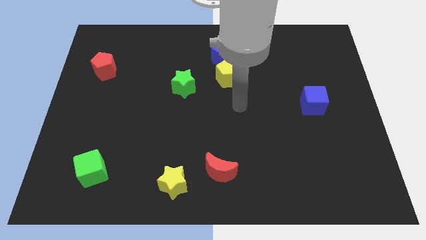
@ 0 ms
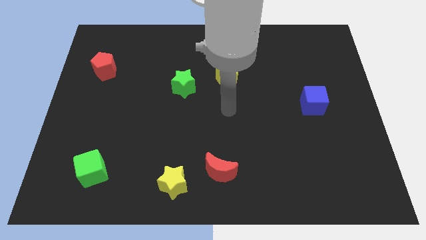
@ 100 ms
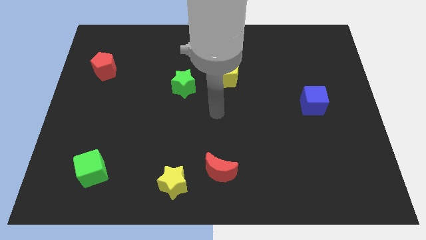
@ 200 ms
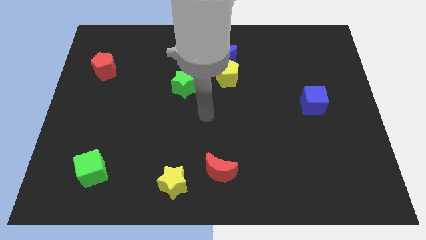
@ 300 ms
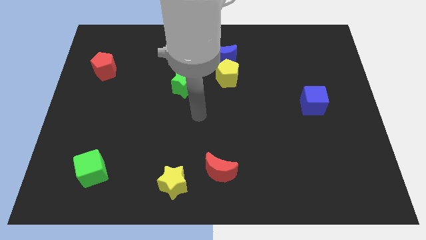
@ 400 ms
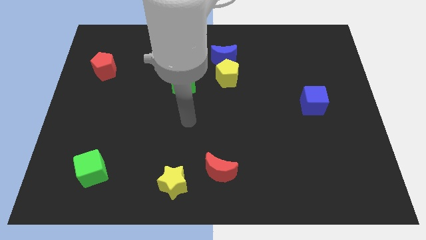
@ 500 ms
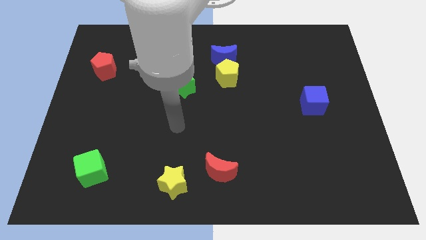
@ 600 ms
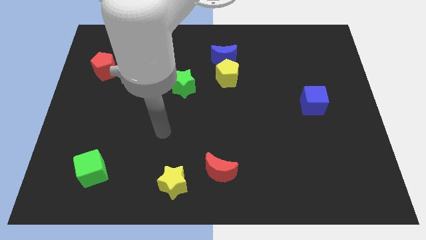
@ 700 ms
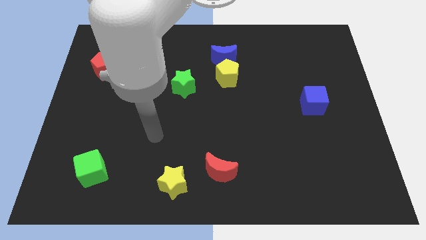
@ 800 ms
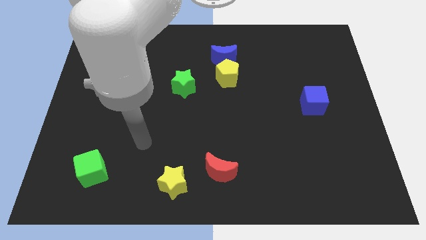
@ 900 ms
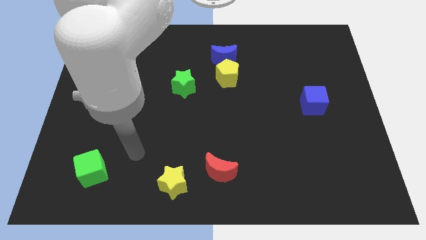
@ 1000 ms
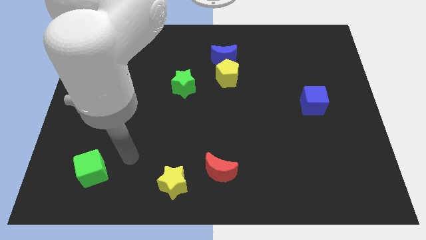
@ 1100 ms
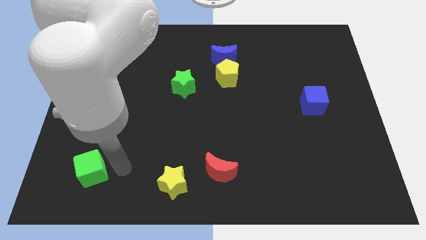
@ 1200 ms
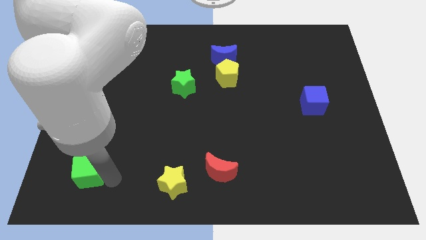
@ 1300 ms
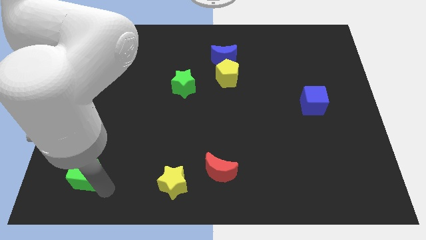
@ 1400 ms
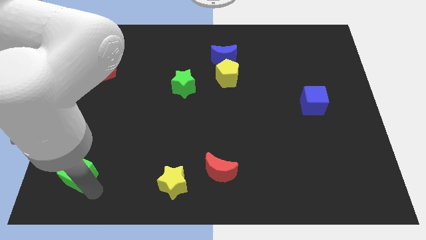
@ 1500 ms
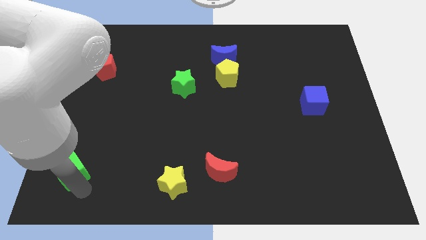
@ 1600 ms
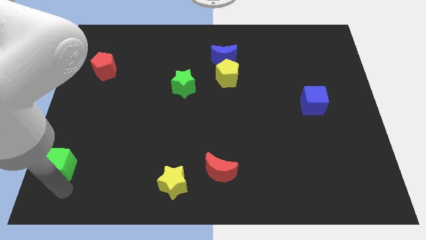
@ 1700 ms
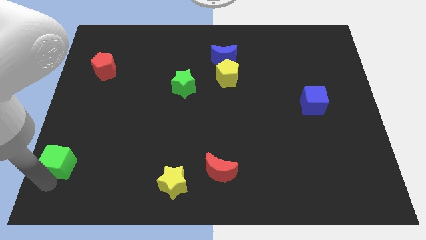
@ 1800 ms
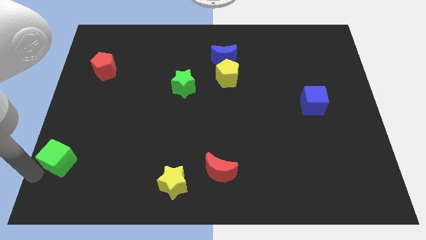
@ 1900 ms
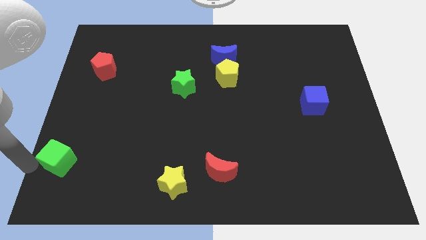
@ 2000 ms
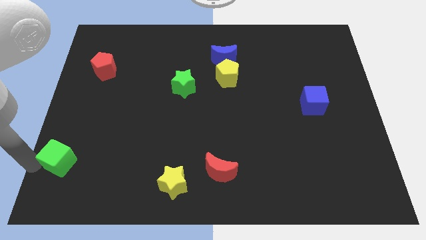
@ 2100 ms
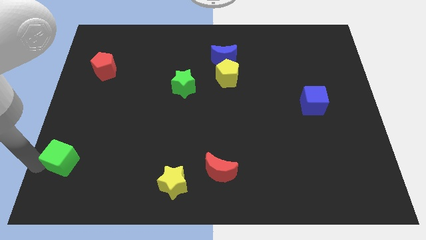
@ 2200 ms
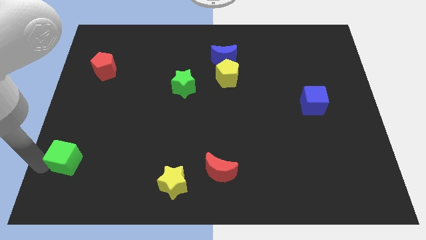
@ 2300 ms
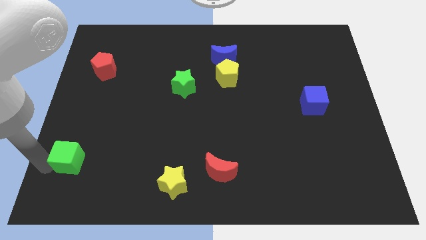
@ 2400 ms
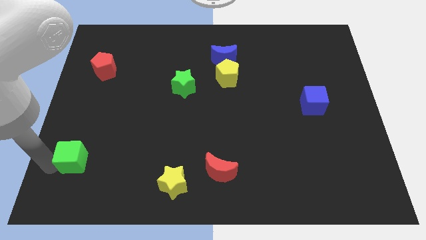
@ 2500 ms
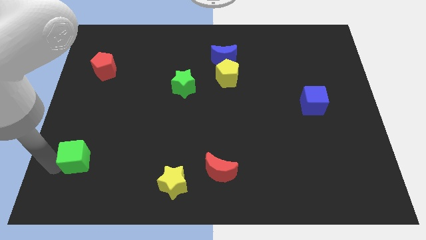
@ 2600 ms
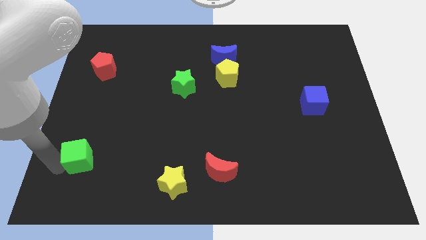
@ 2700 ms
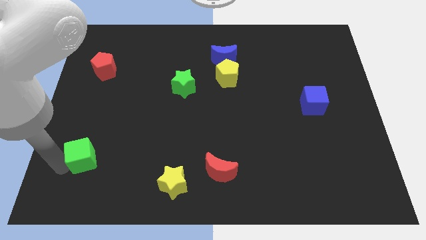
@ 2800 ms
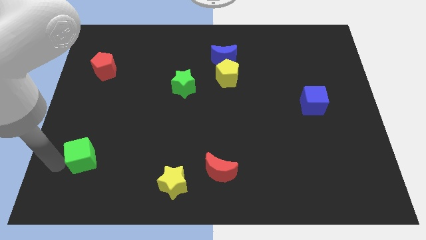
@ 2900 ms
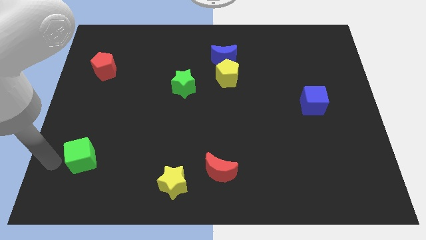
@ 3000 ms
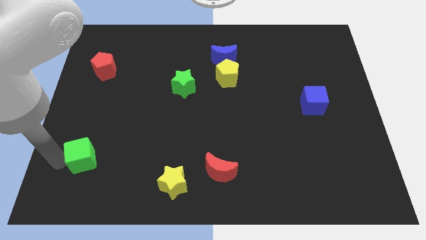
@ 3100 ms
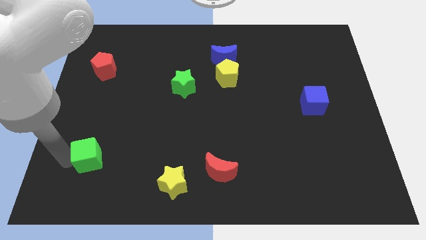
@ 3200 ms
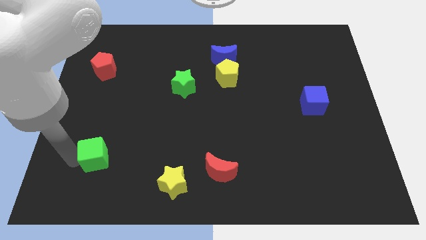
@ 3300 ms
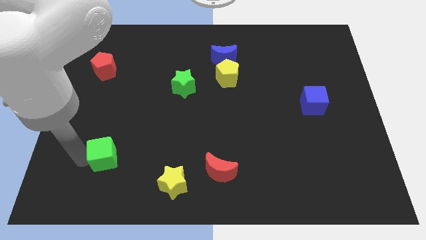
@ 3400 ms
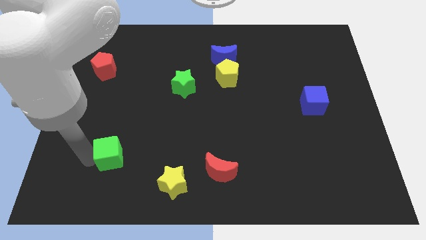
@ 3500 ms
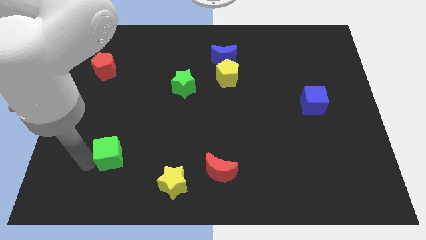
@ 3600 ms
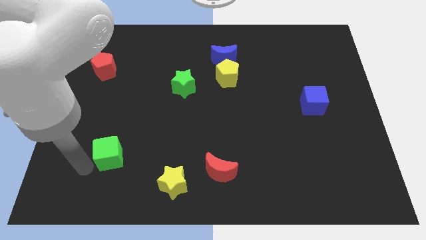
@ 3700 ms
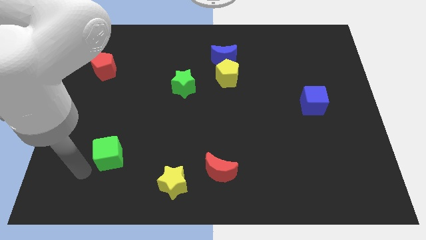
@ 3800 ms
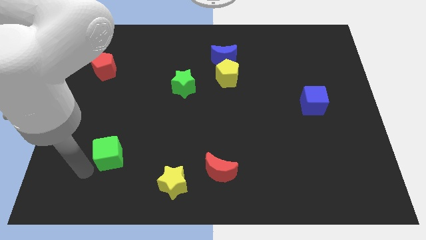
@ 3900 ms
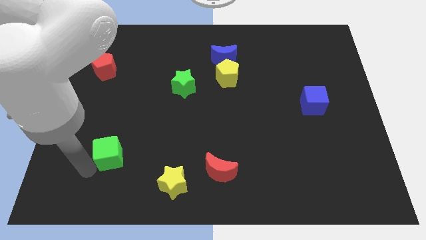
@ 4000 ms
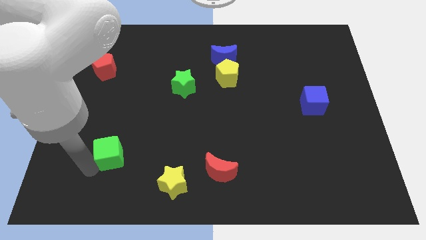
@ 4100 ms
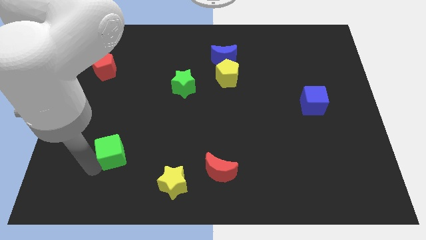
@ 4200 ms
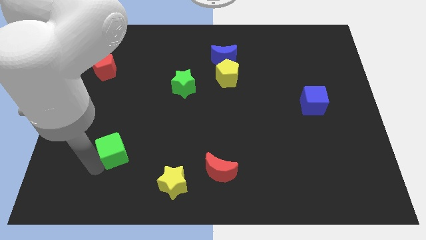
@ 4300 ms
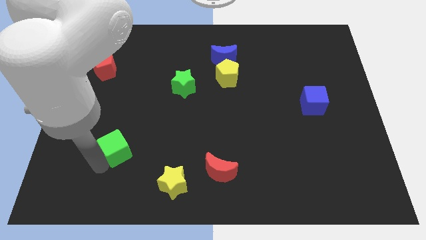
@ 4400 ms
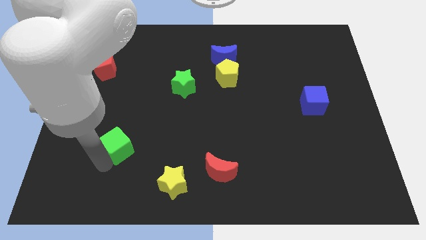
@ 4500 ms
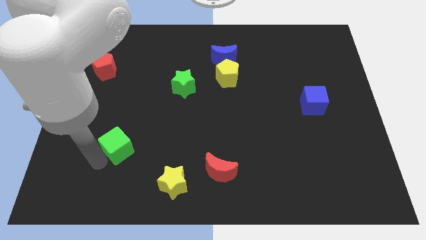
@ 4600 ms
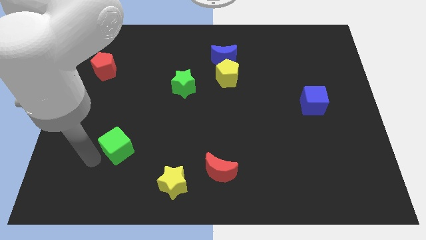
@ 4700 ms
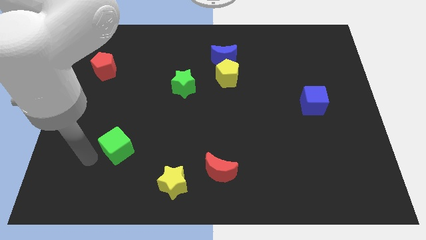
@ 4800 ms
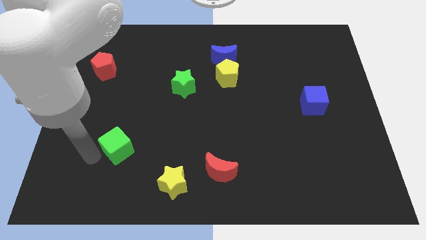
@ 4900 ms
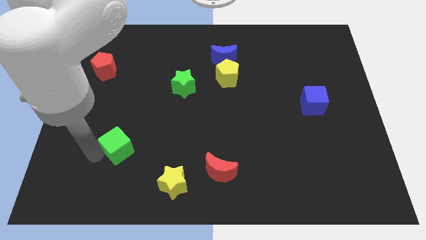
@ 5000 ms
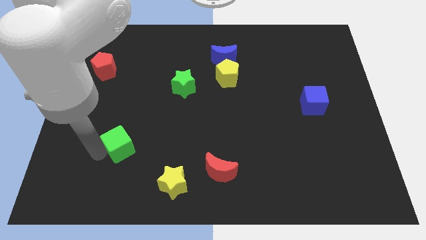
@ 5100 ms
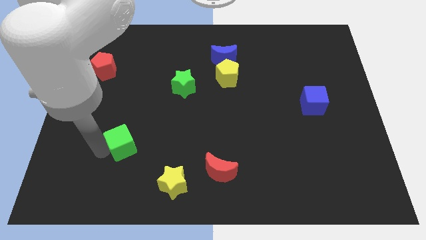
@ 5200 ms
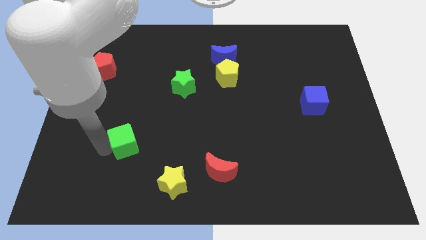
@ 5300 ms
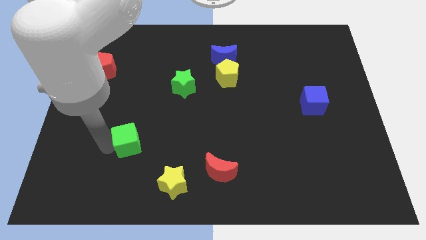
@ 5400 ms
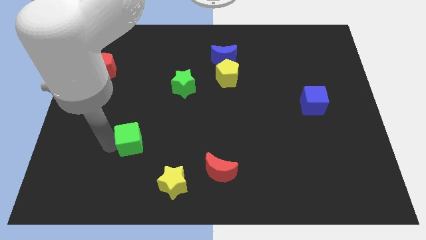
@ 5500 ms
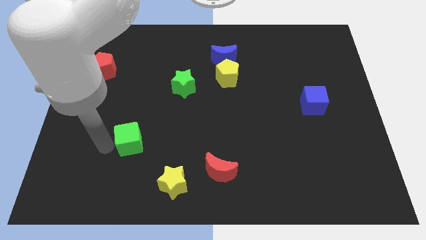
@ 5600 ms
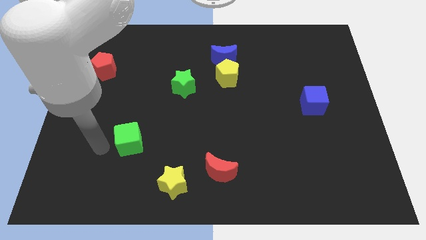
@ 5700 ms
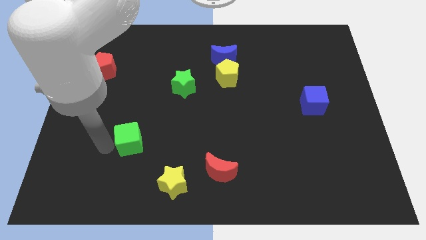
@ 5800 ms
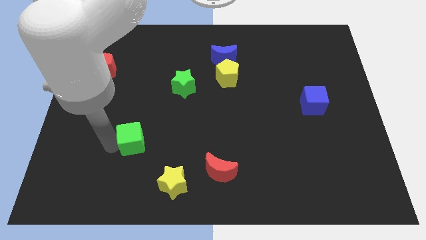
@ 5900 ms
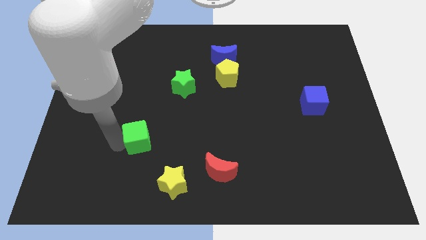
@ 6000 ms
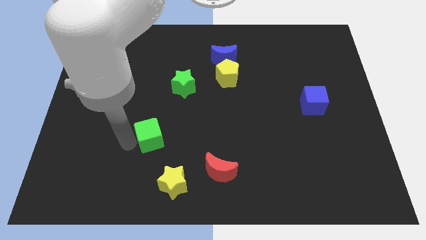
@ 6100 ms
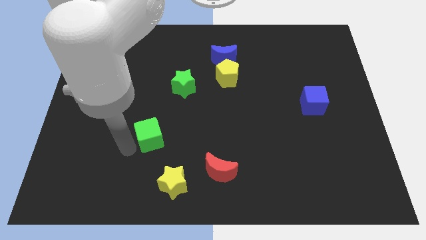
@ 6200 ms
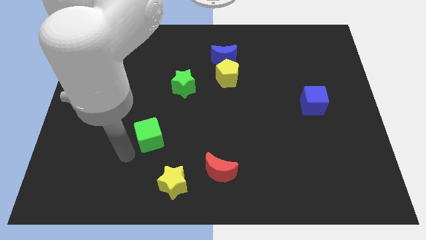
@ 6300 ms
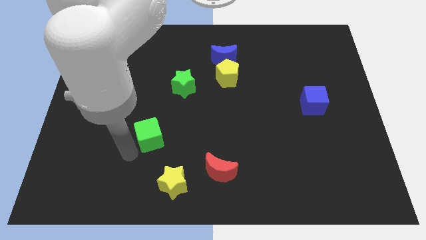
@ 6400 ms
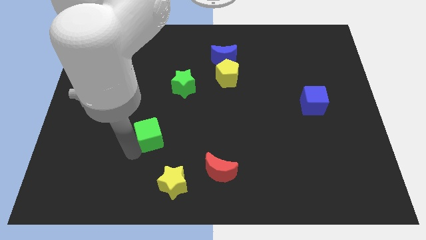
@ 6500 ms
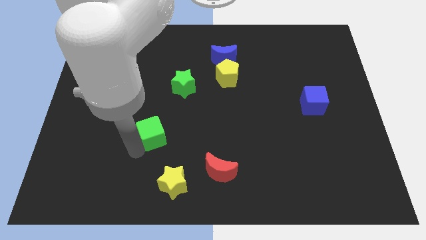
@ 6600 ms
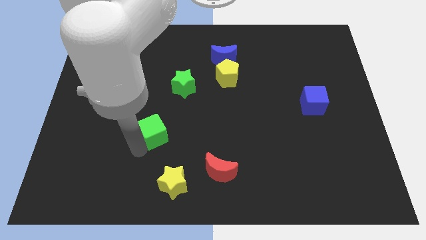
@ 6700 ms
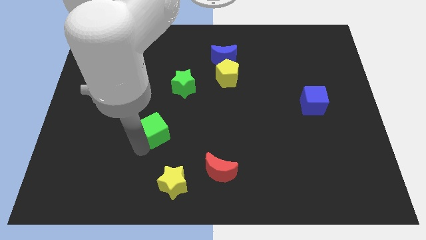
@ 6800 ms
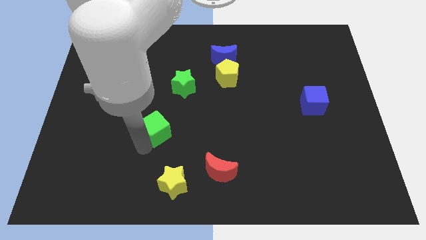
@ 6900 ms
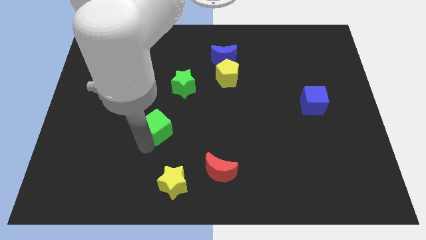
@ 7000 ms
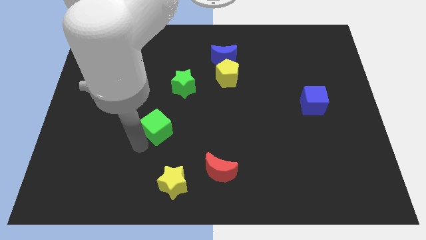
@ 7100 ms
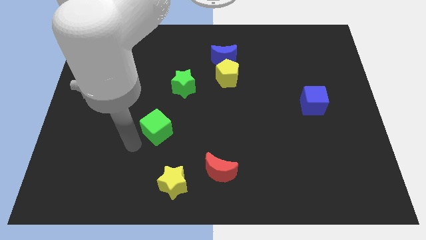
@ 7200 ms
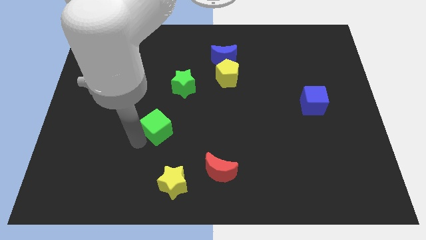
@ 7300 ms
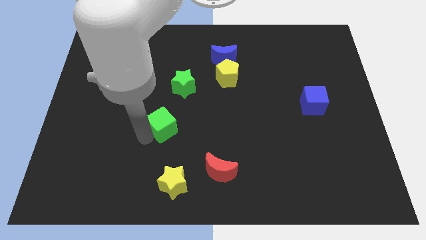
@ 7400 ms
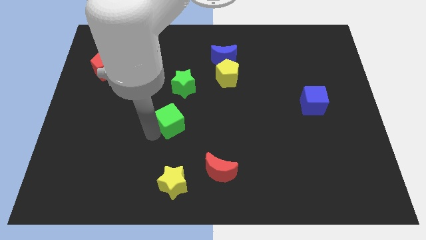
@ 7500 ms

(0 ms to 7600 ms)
put the green cube to the center of the board
